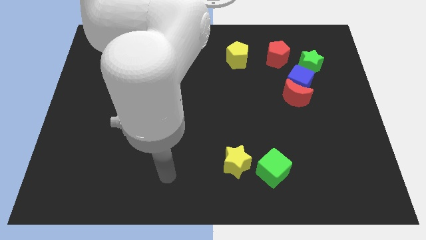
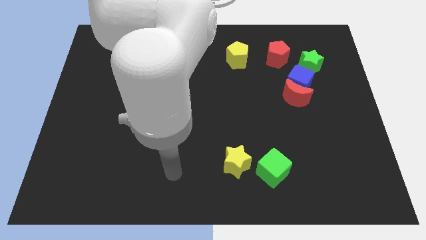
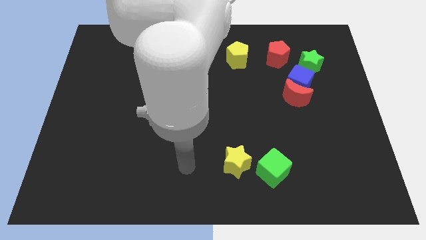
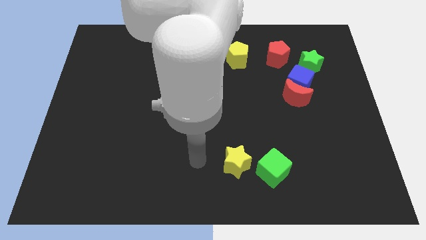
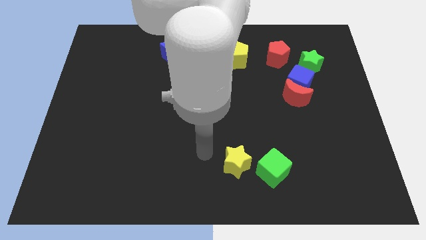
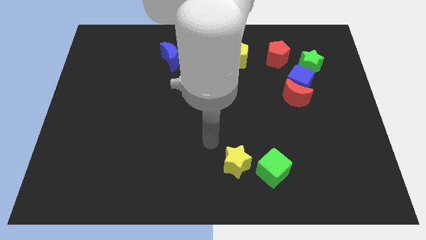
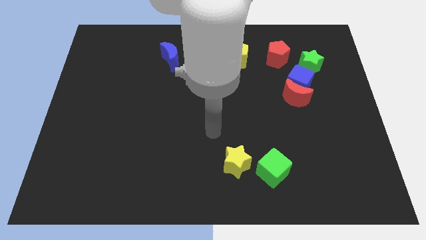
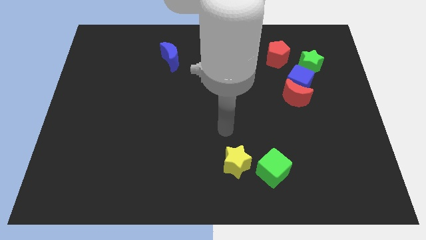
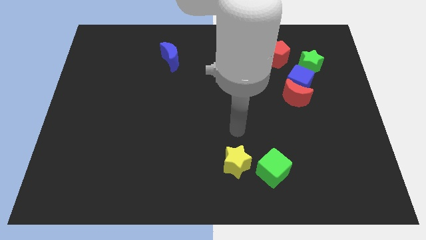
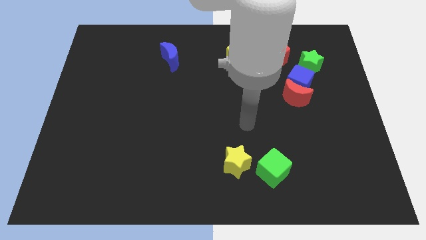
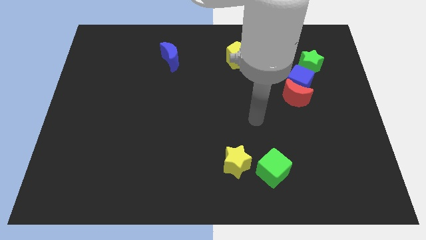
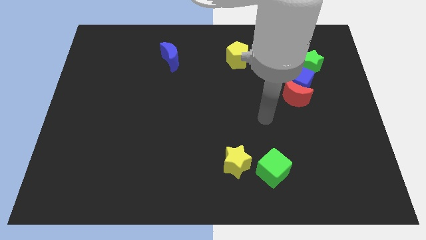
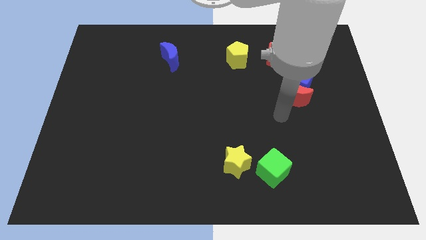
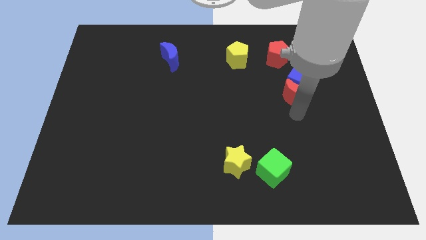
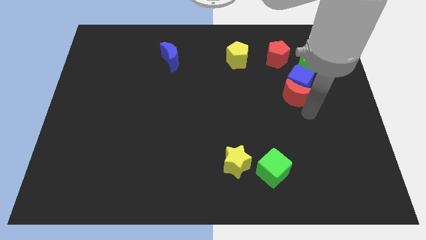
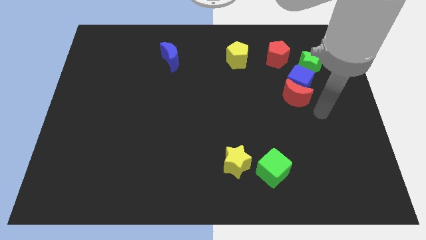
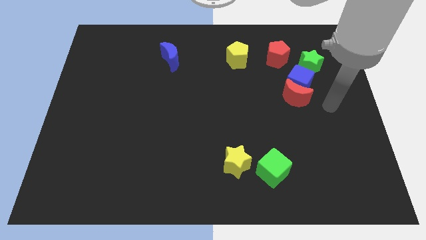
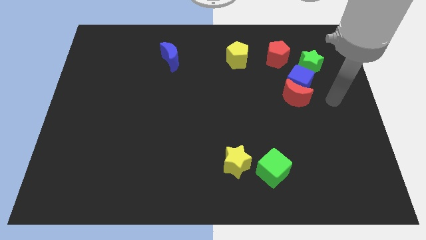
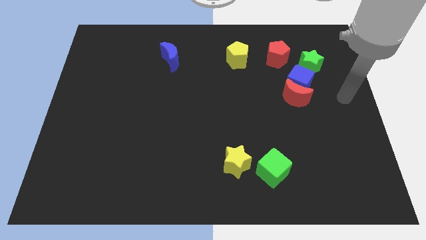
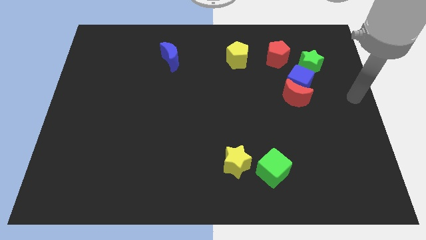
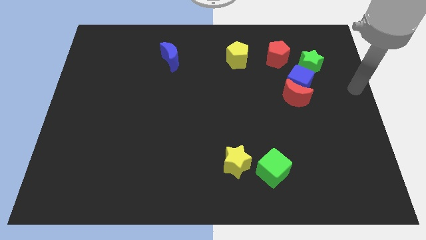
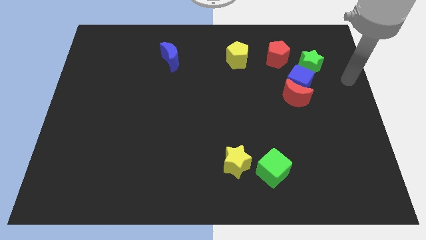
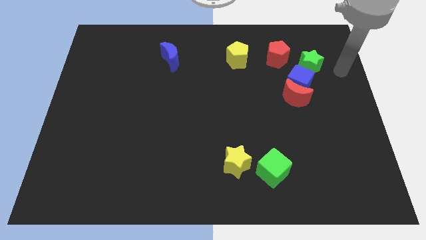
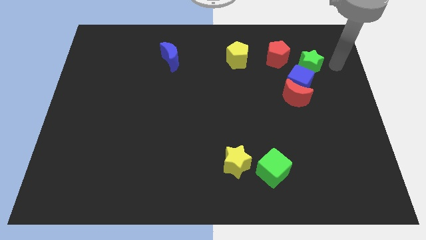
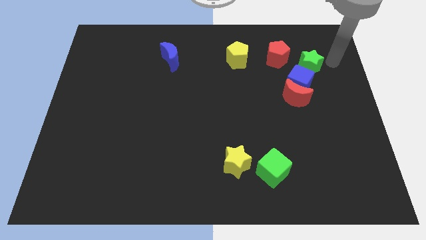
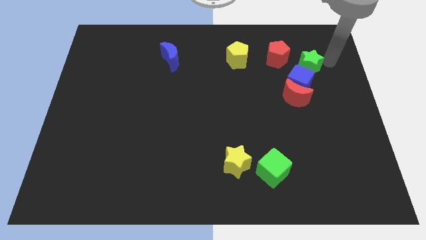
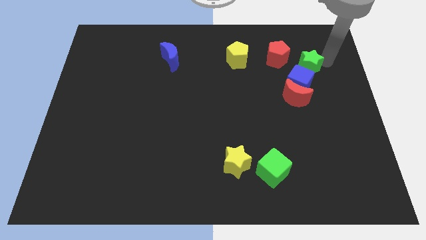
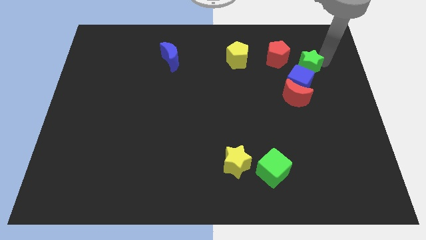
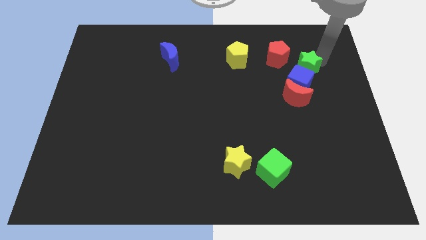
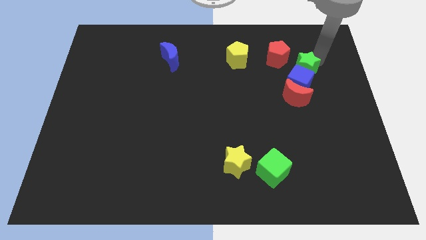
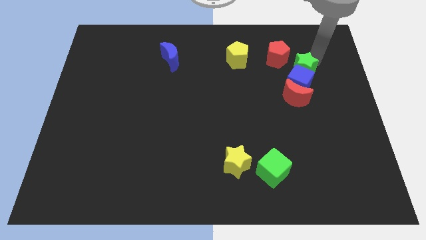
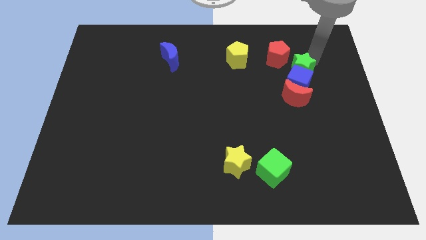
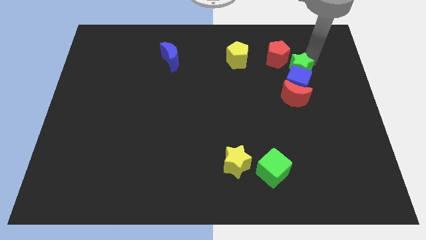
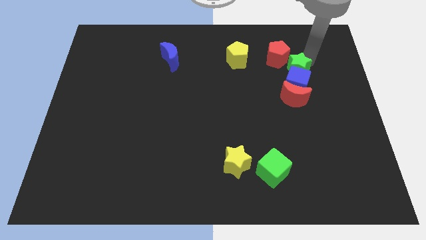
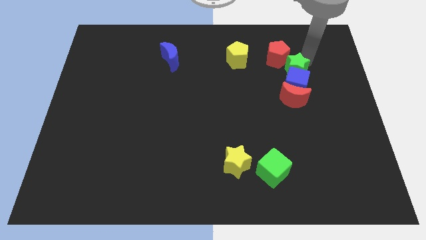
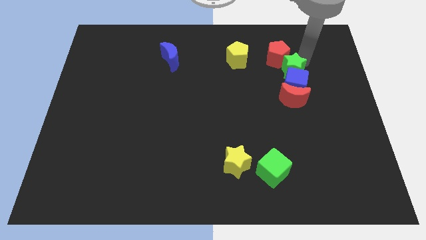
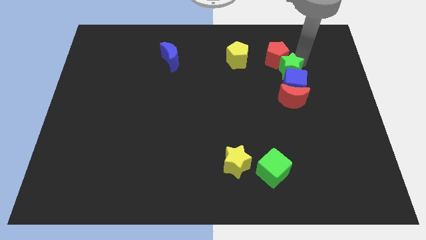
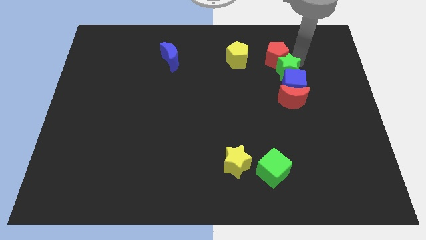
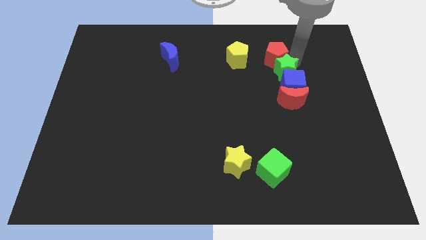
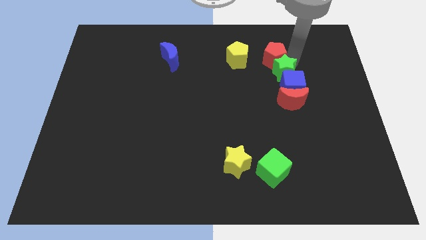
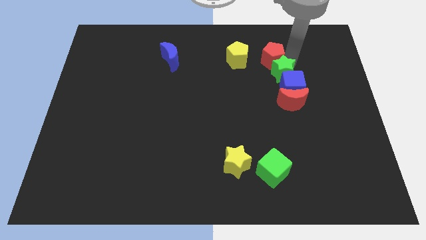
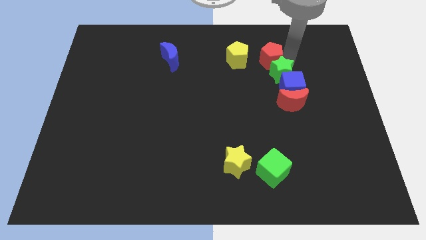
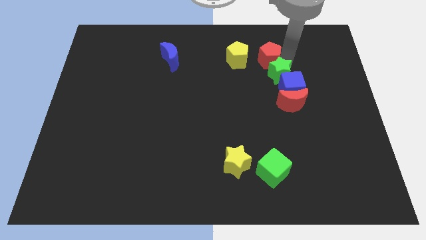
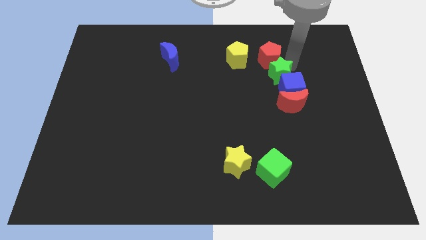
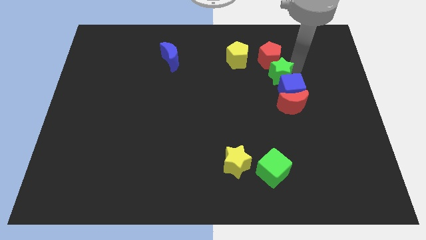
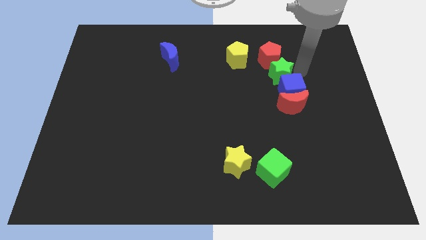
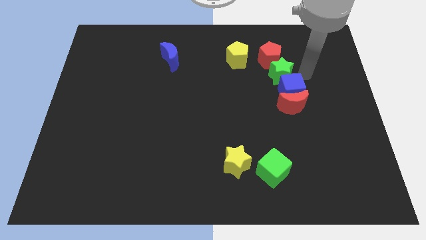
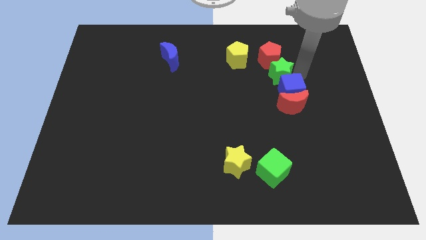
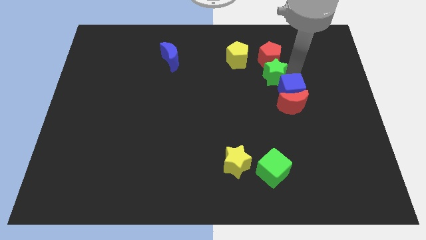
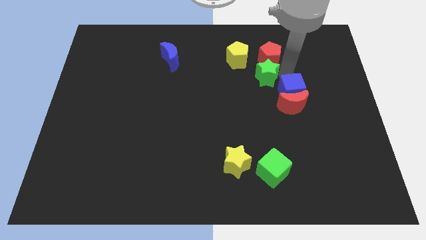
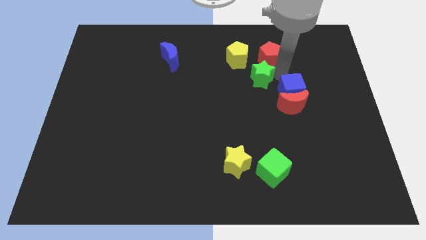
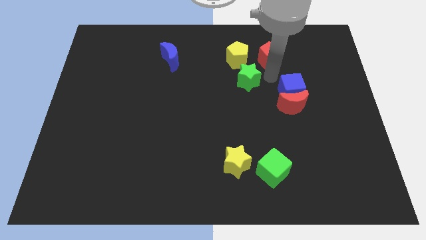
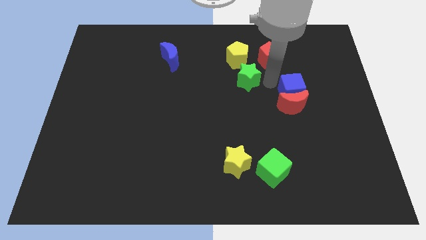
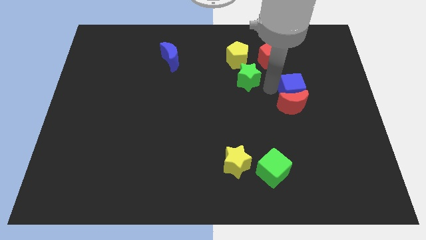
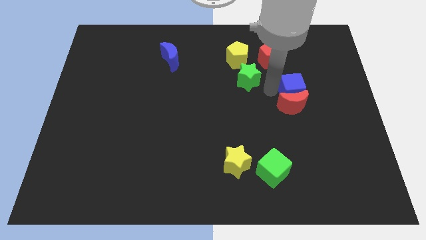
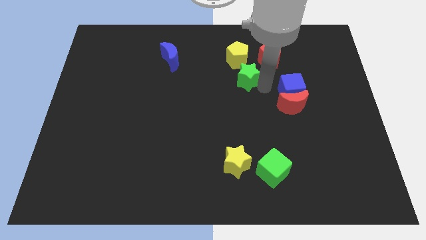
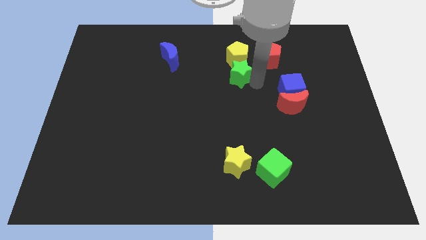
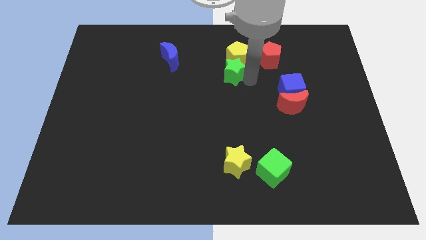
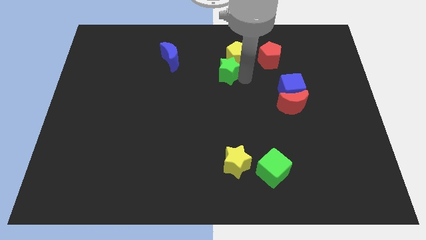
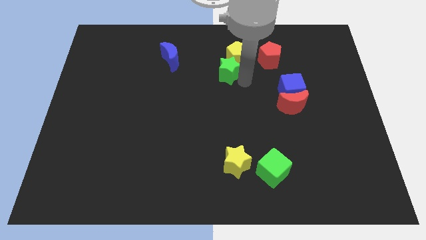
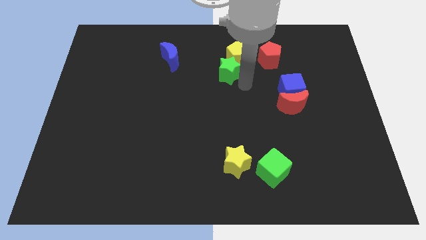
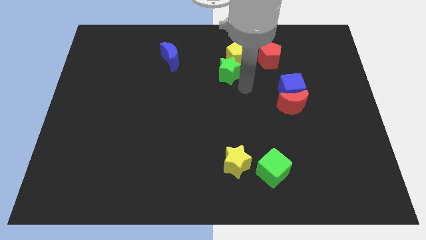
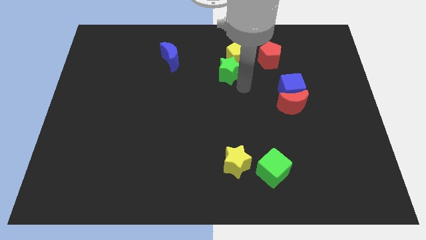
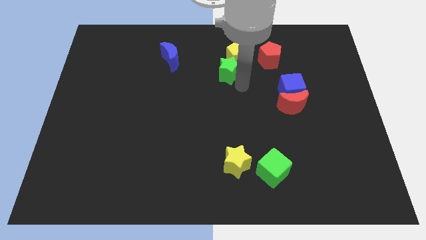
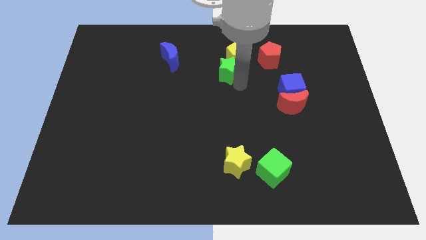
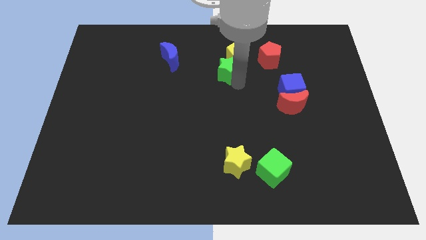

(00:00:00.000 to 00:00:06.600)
push the green star left of the red pentagon

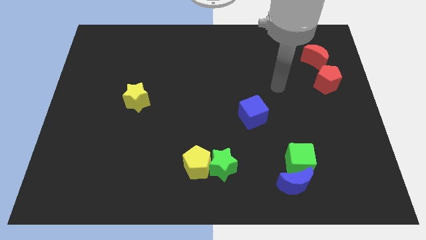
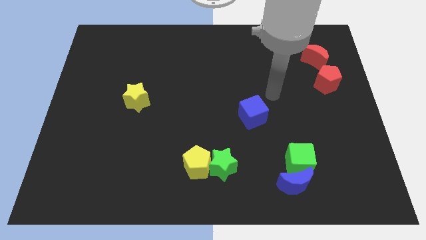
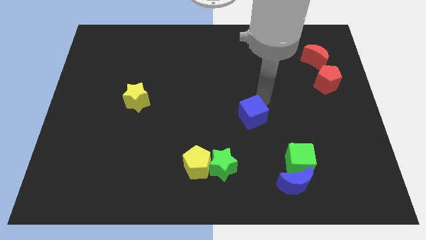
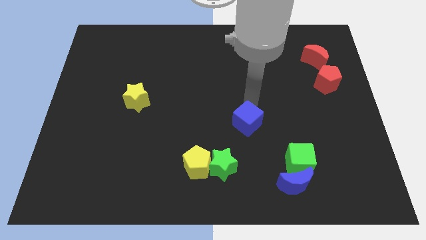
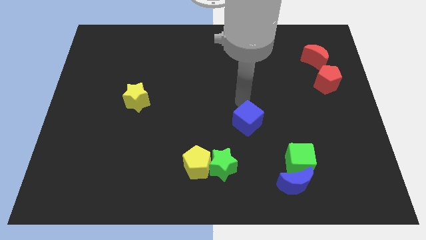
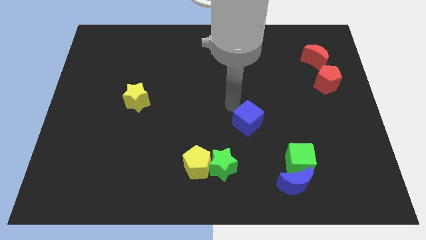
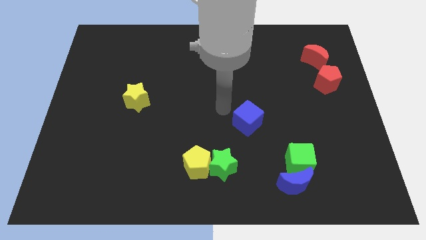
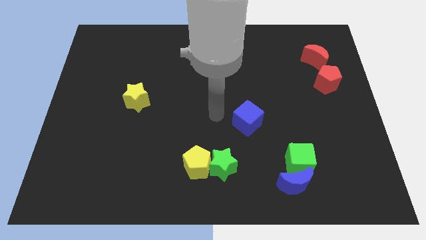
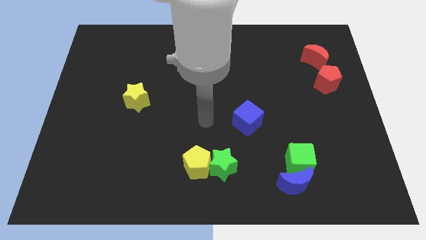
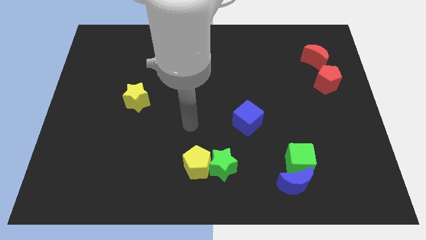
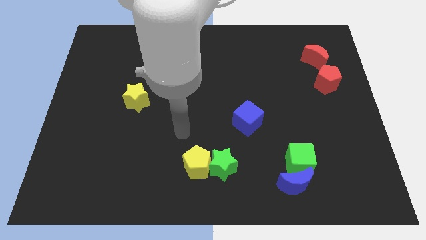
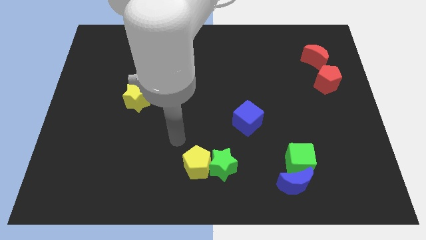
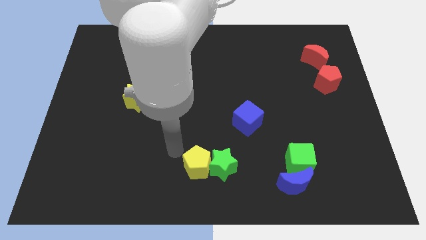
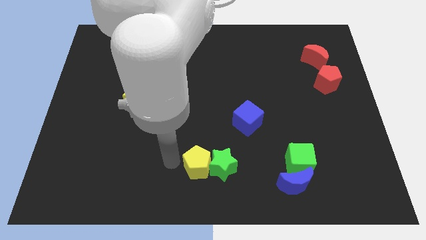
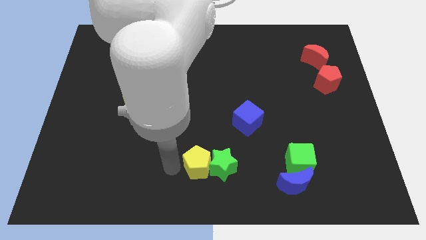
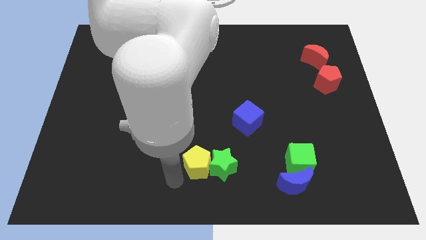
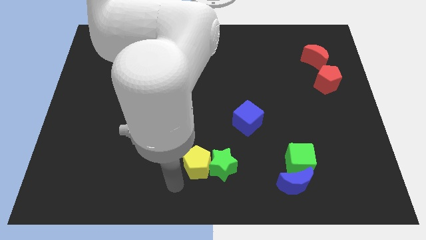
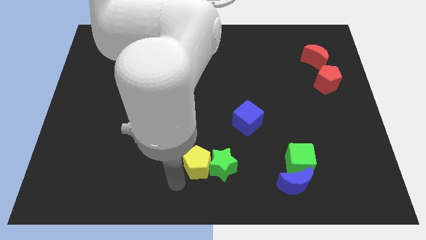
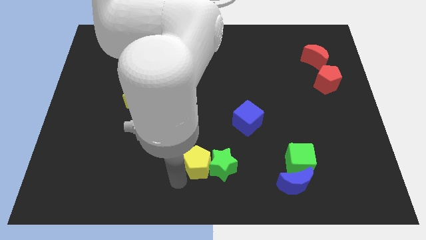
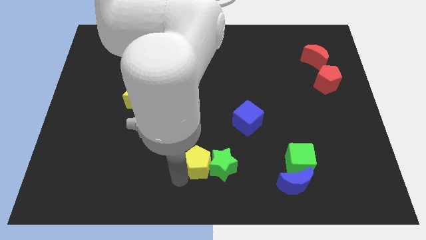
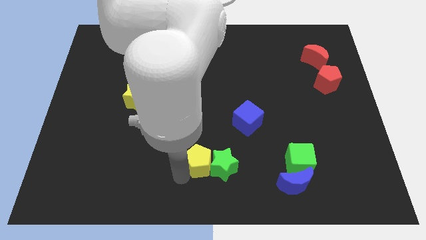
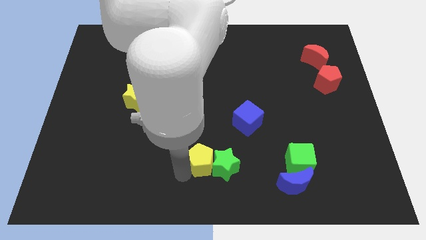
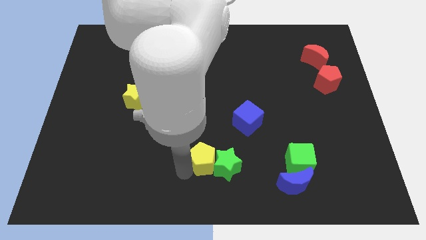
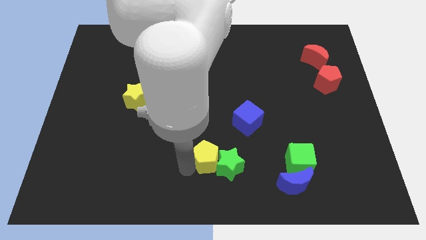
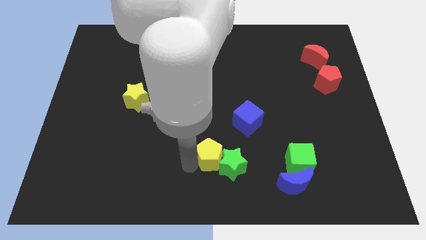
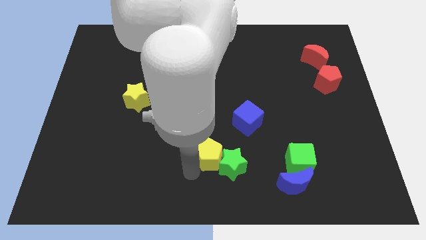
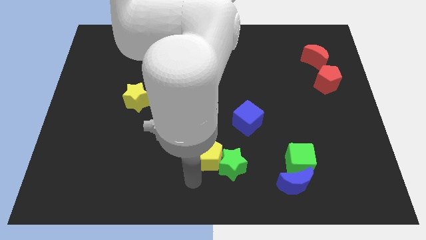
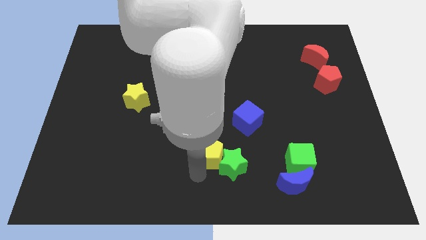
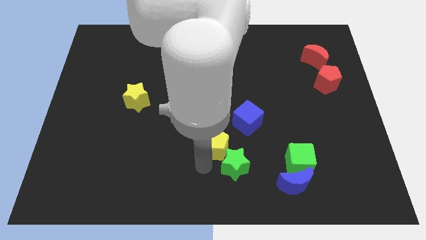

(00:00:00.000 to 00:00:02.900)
move the yellow pentagon to the top side of the green star
